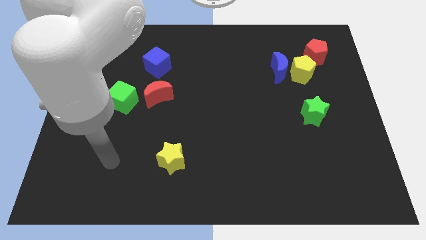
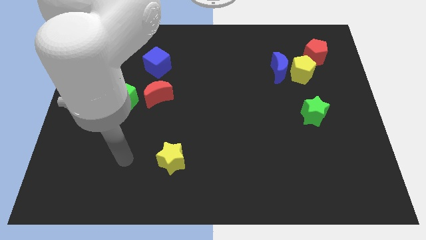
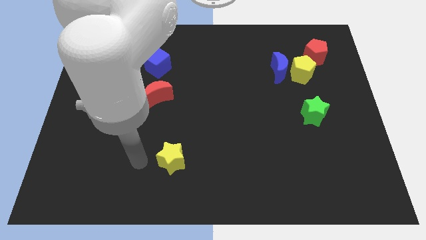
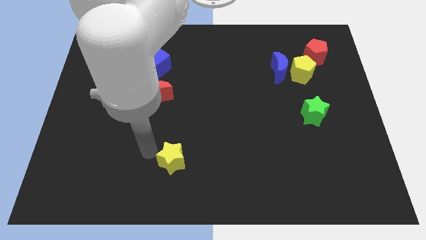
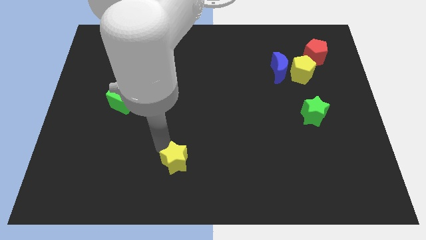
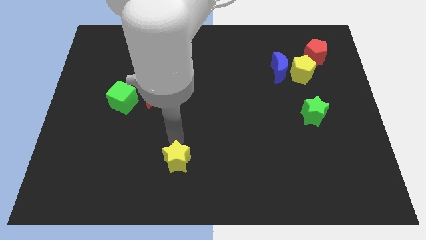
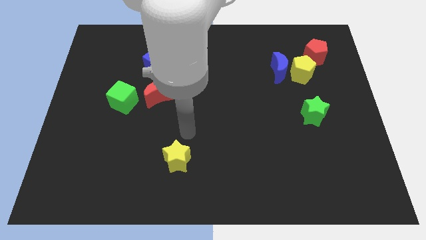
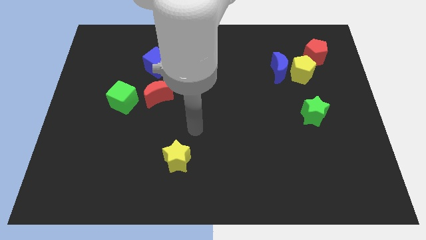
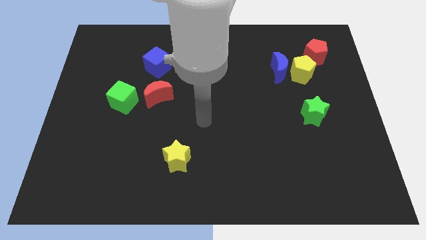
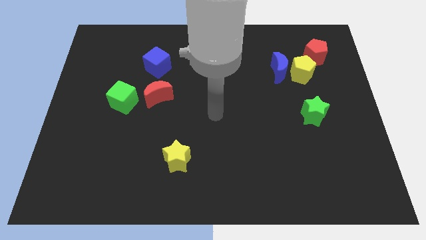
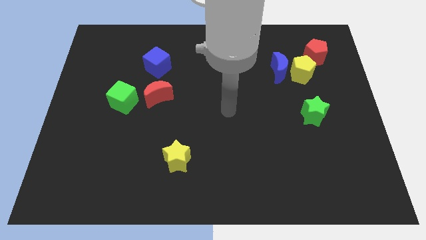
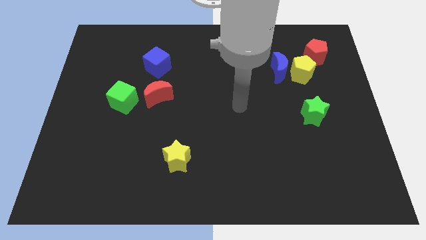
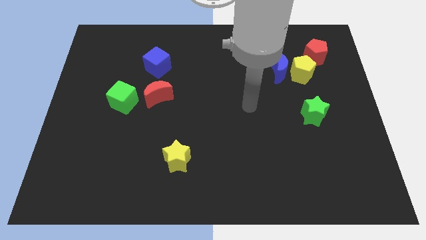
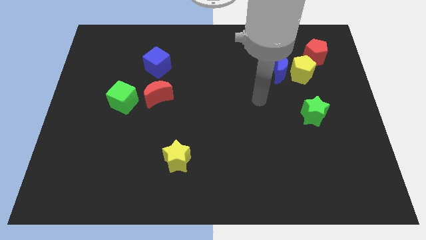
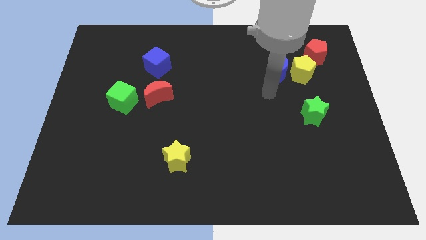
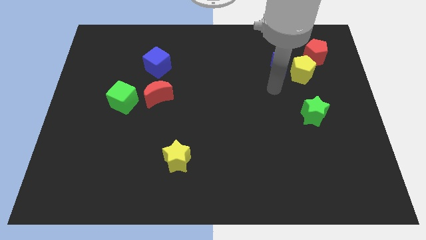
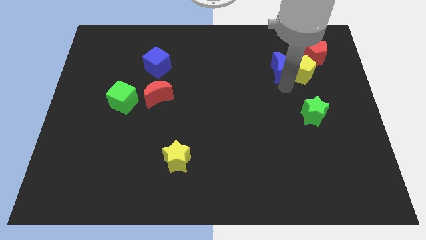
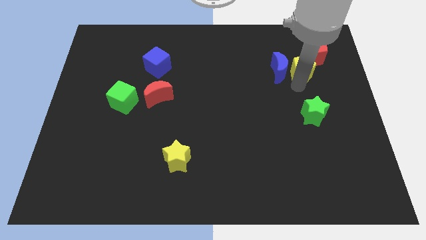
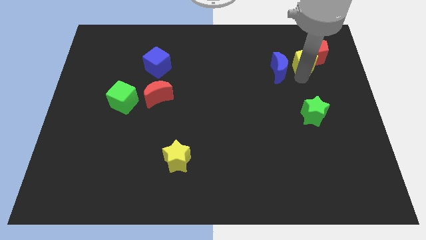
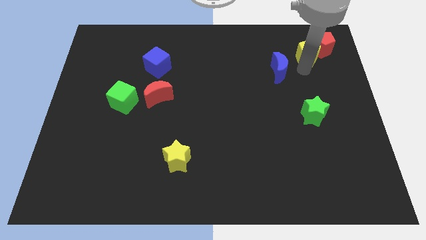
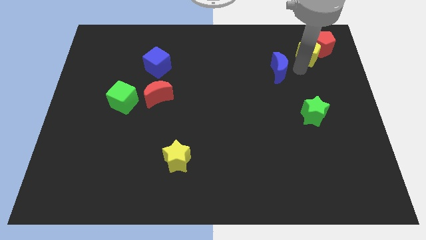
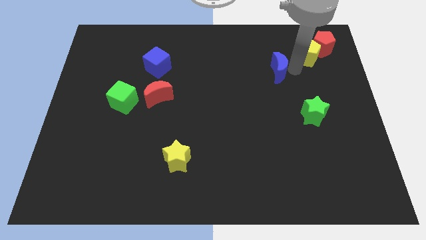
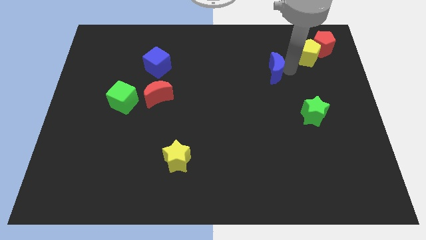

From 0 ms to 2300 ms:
move the blue moon away from the yellow pentagon

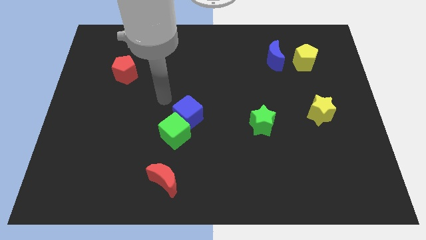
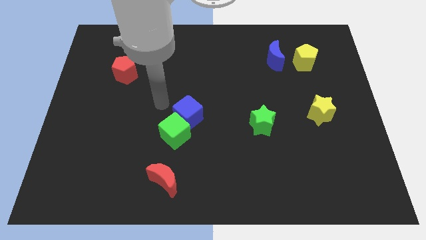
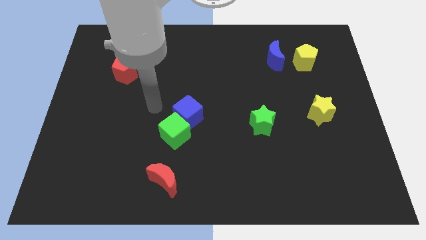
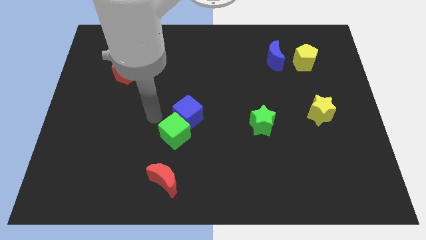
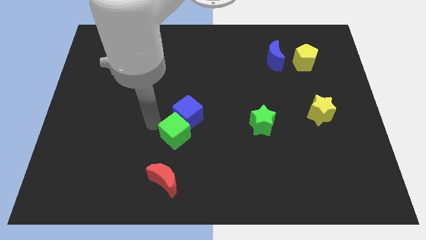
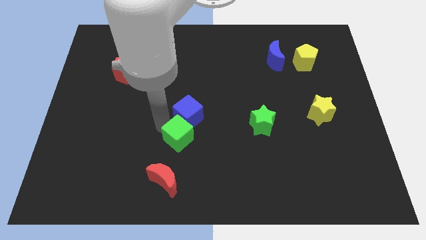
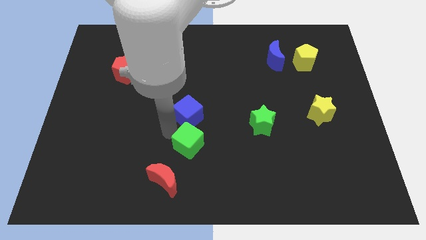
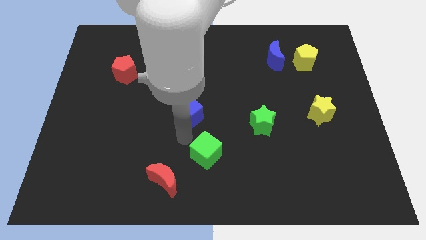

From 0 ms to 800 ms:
separate the blue cube from the green cube

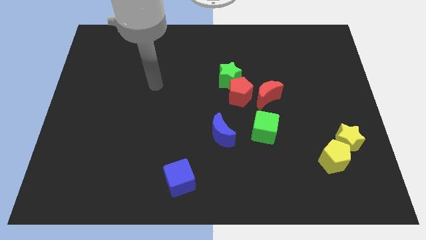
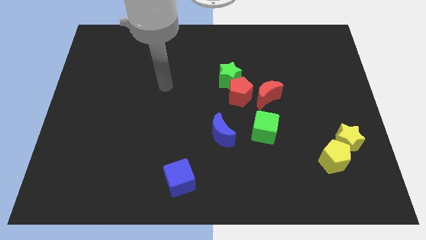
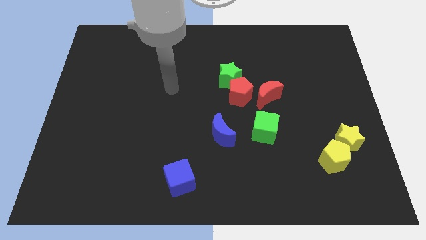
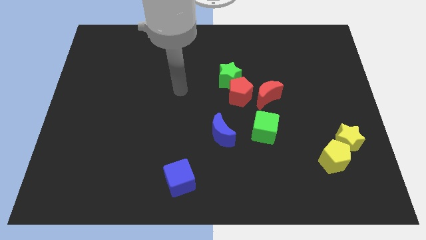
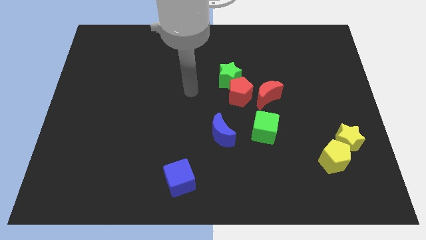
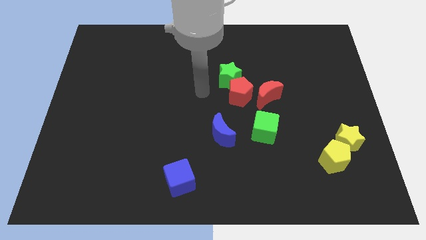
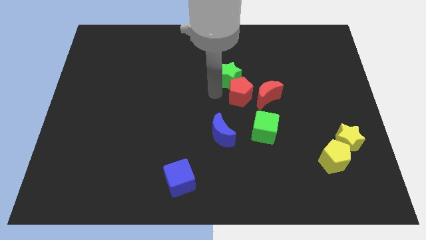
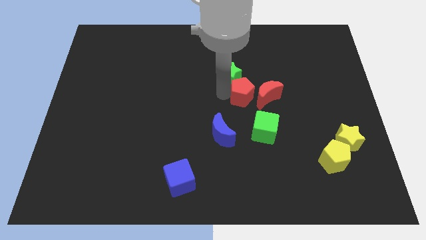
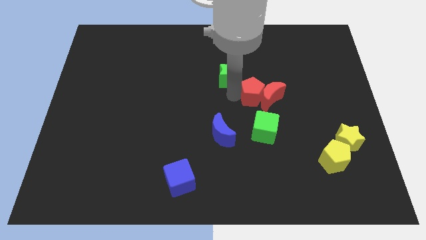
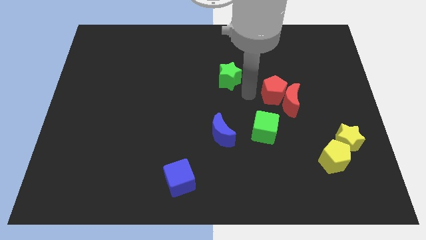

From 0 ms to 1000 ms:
separate the green star from the red pentagon

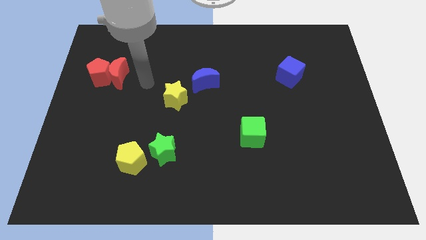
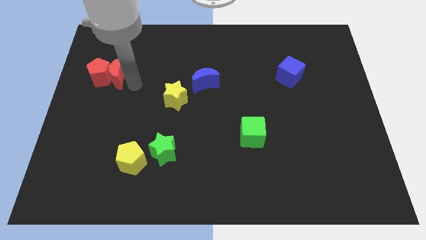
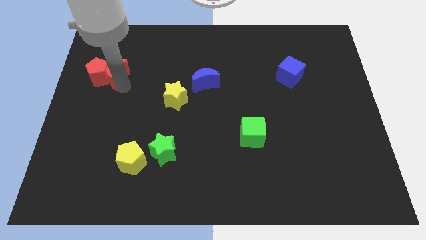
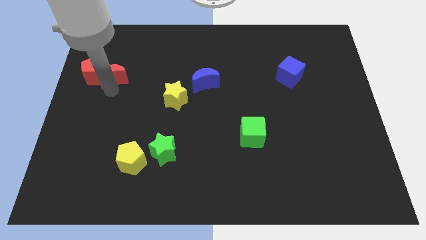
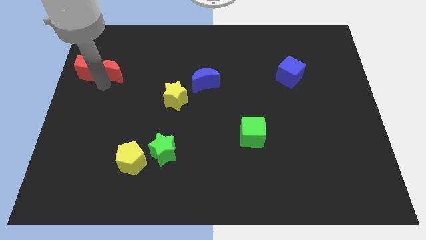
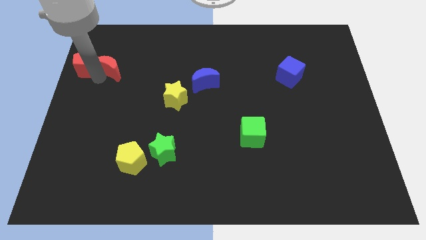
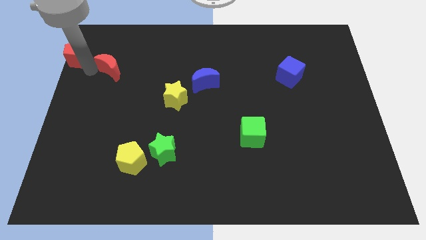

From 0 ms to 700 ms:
move the red moon away from the red pentagon

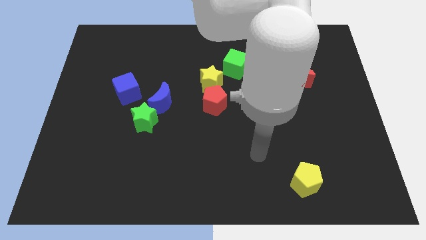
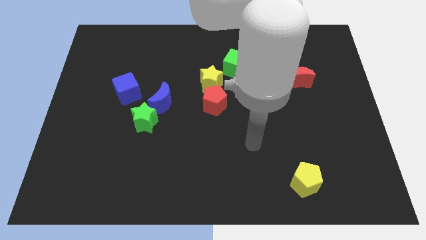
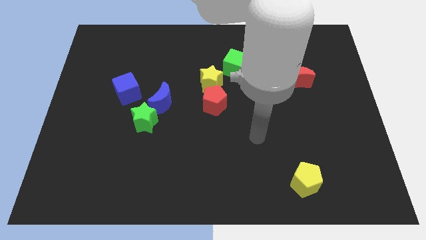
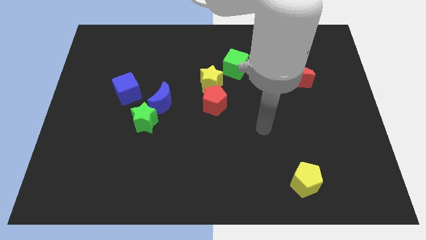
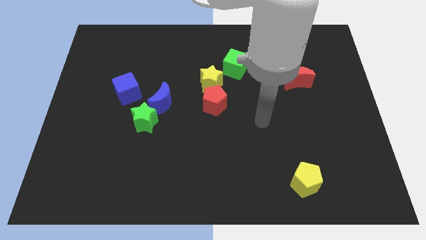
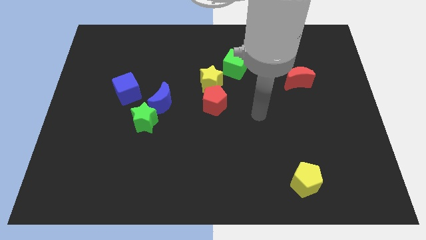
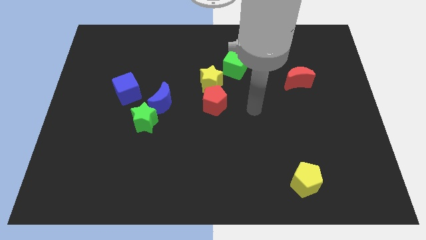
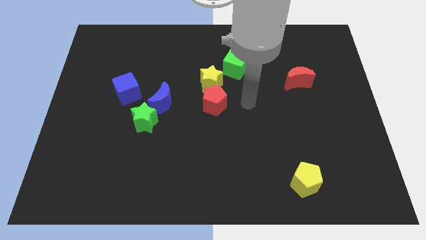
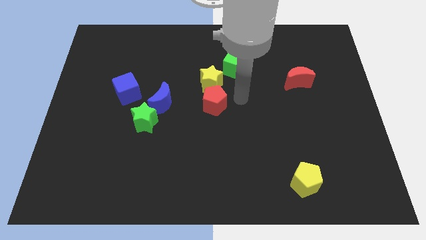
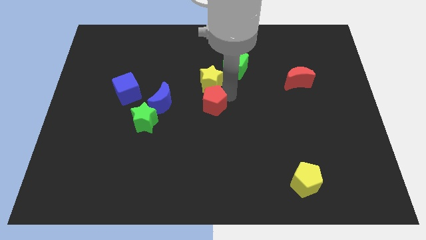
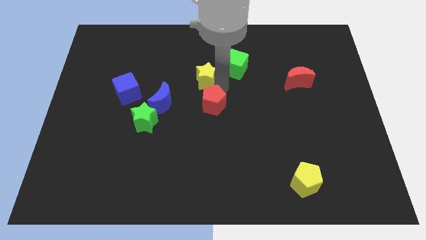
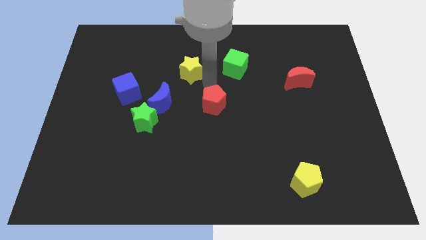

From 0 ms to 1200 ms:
separate the red pentagon from the yellow star

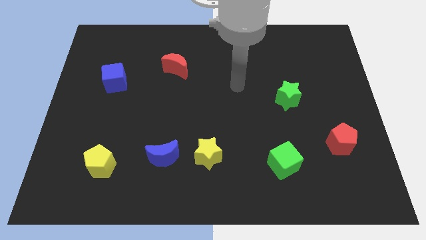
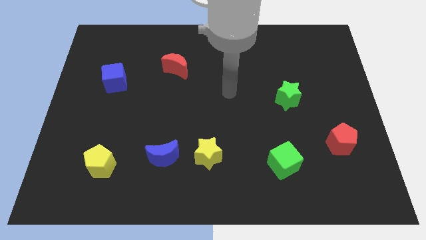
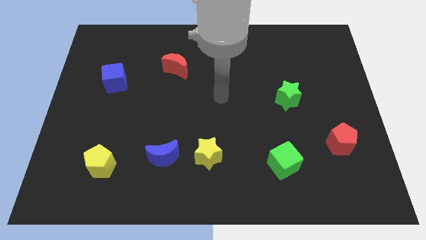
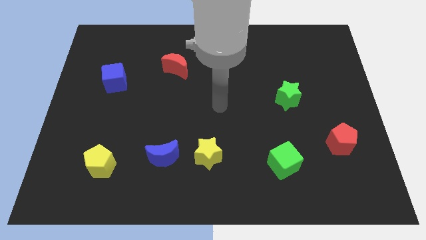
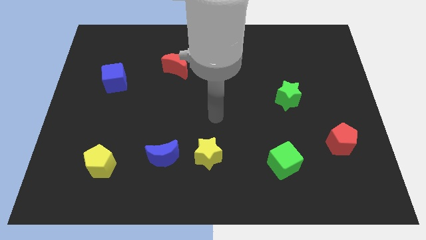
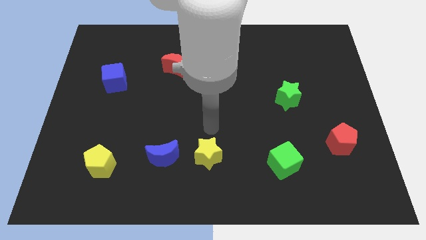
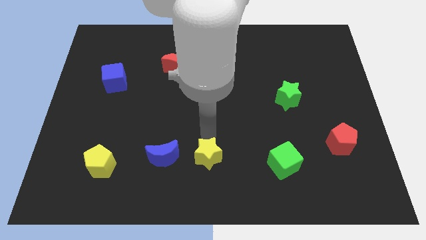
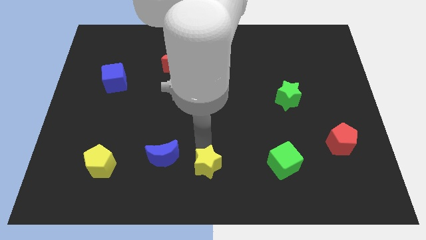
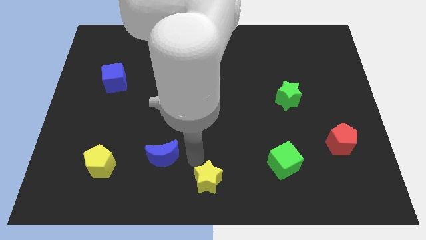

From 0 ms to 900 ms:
pull the blue moon apart from the yellow star

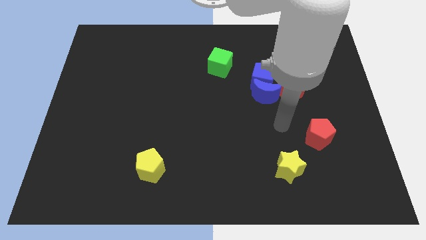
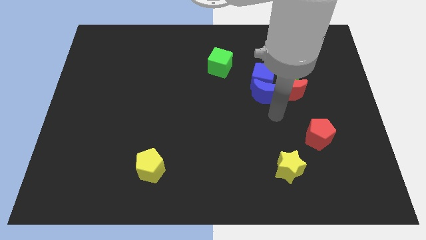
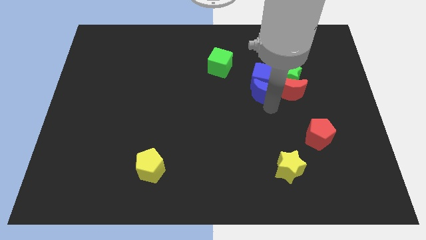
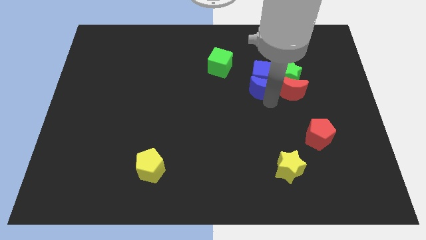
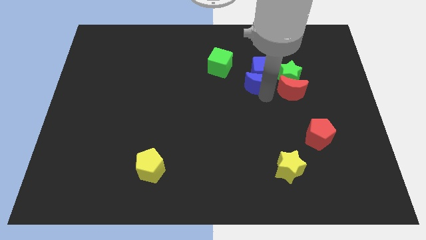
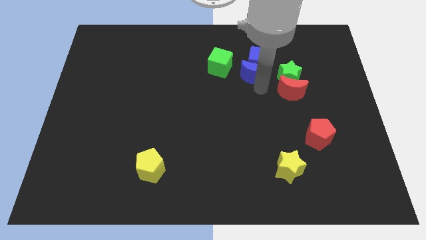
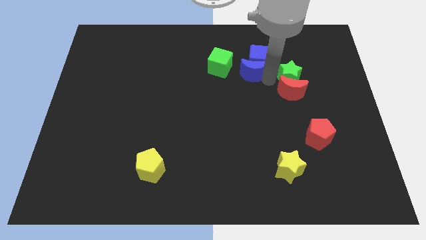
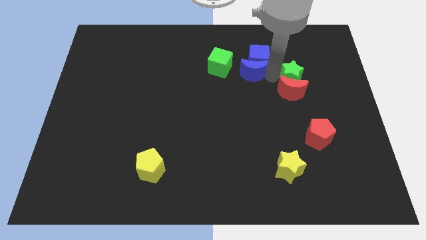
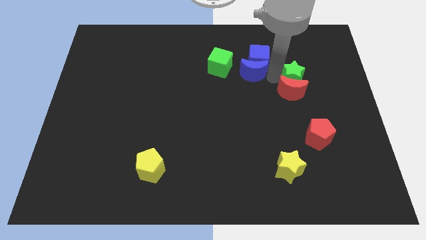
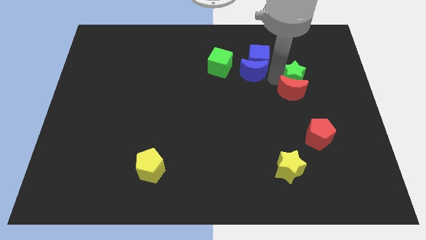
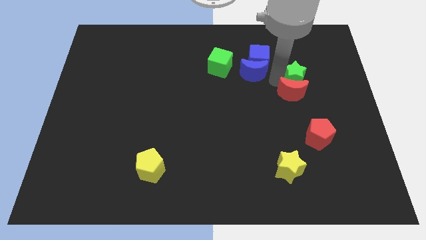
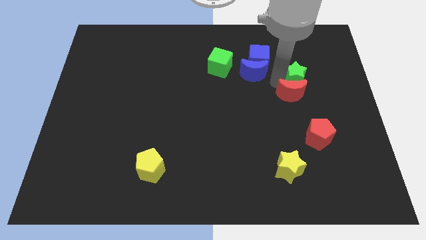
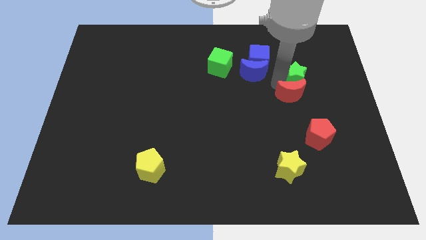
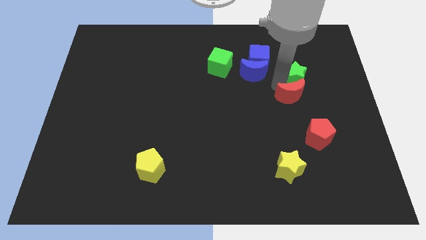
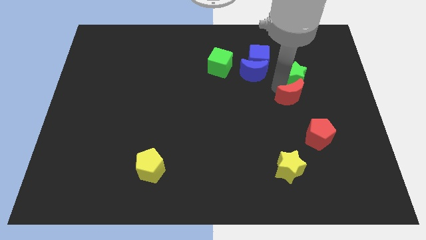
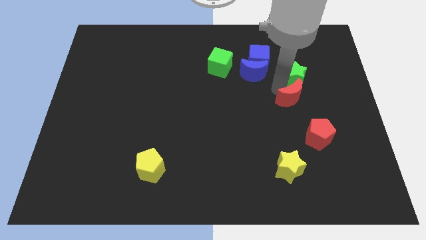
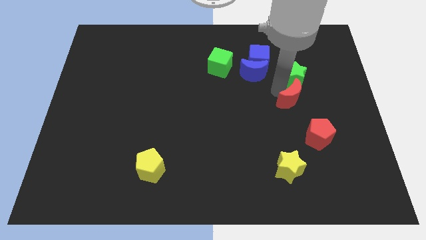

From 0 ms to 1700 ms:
pull the red moon apart from the green star, blue moon, and blue cube

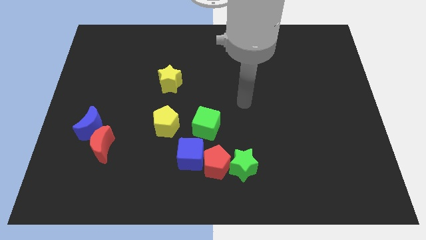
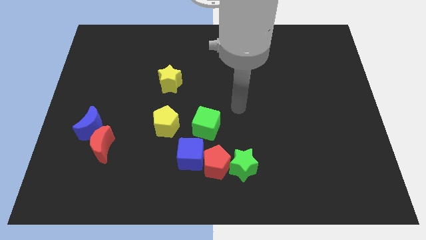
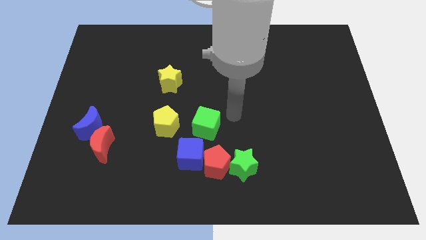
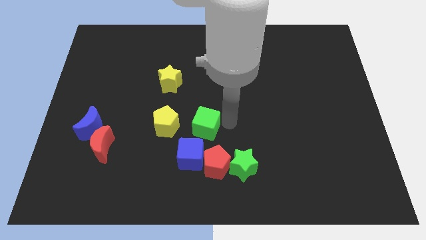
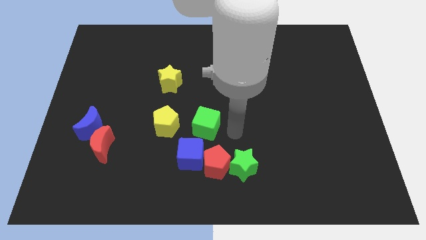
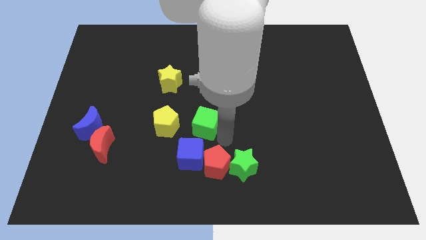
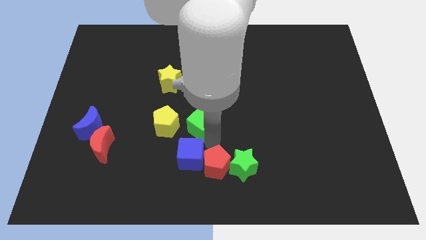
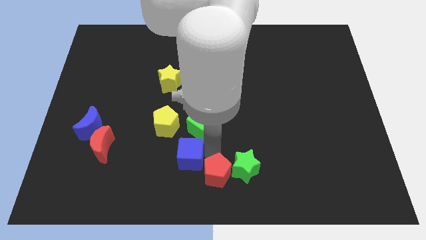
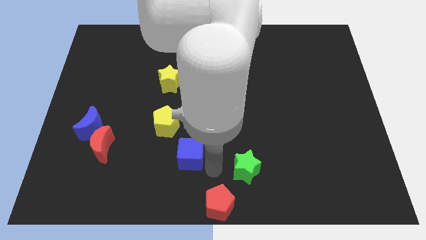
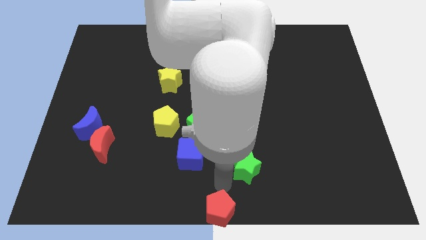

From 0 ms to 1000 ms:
pull the green star apart from the red pentagon
